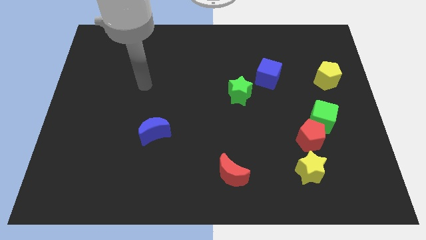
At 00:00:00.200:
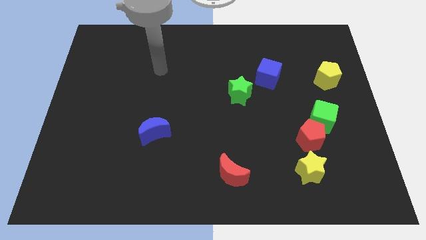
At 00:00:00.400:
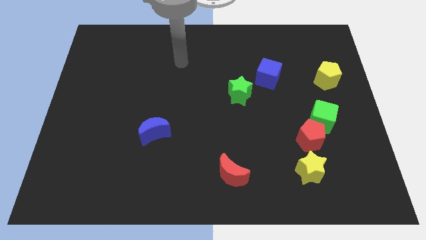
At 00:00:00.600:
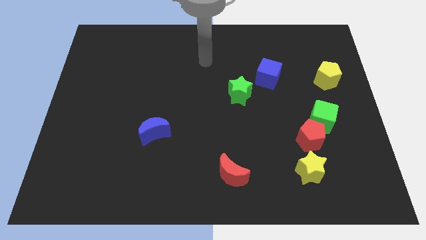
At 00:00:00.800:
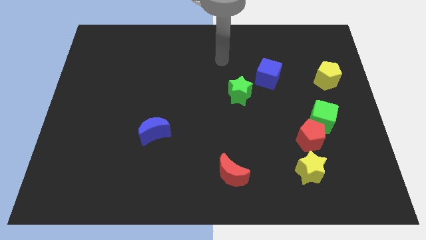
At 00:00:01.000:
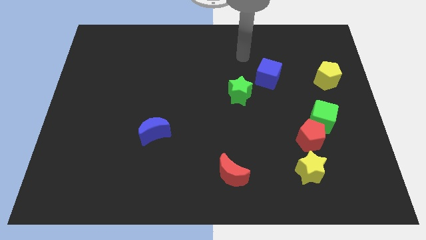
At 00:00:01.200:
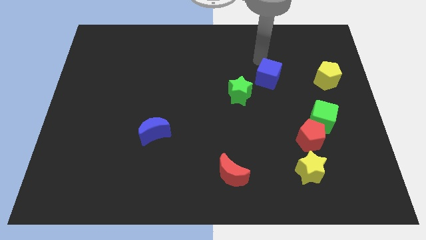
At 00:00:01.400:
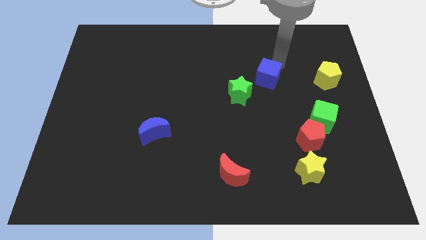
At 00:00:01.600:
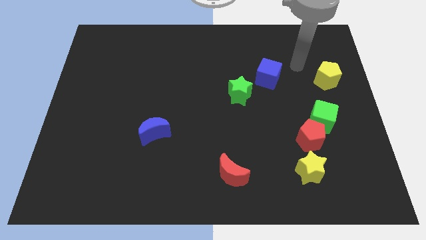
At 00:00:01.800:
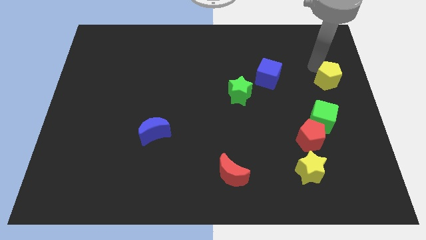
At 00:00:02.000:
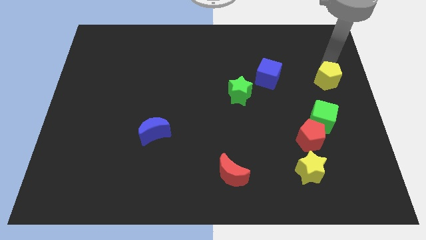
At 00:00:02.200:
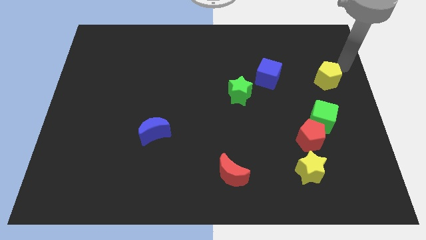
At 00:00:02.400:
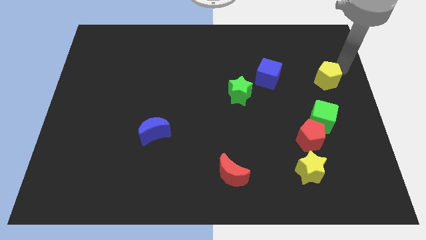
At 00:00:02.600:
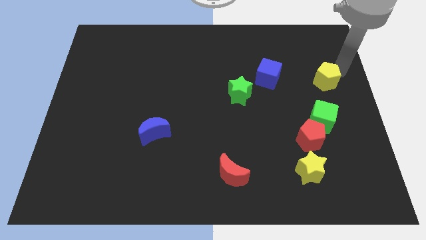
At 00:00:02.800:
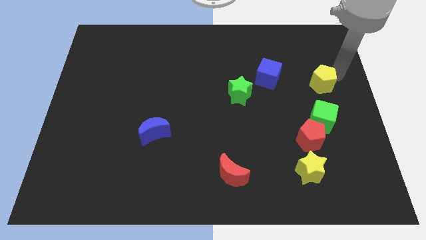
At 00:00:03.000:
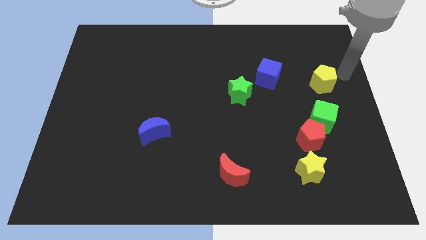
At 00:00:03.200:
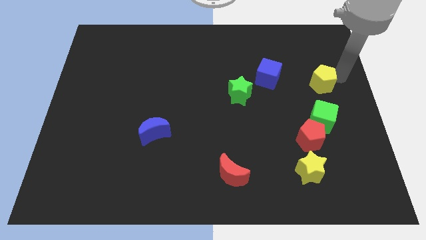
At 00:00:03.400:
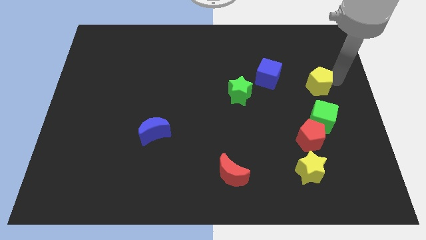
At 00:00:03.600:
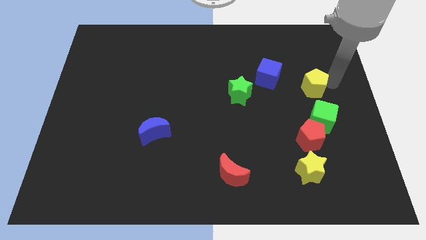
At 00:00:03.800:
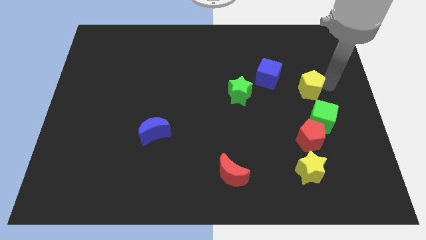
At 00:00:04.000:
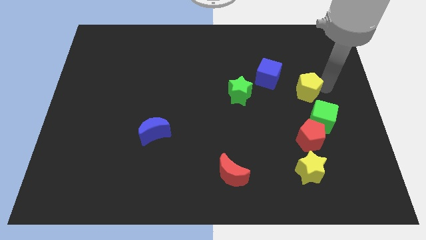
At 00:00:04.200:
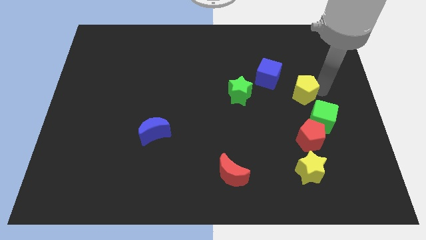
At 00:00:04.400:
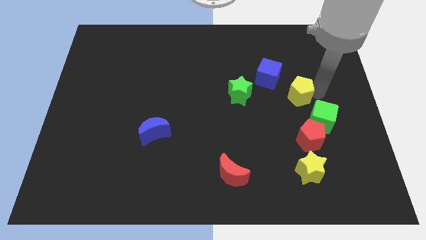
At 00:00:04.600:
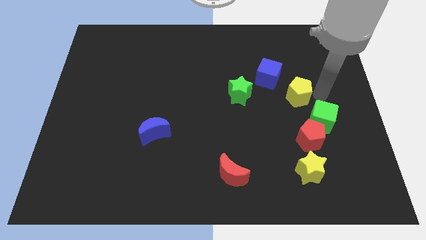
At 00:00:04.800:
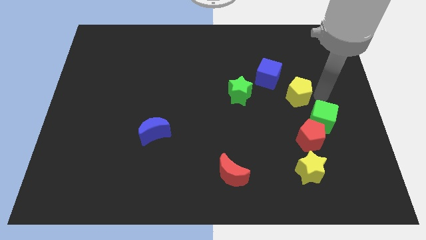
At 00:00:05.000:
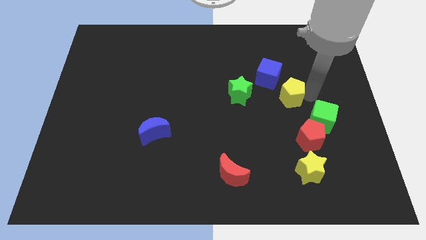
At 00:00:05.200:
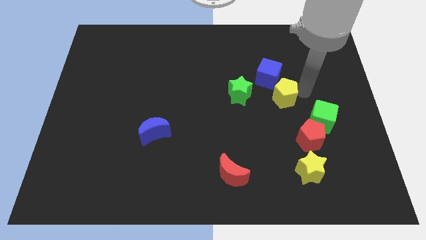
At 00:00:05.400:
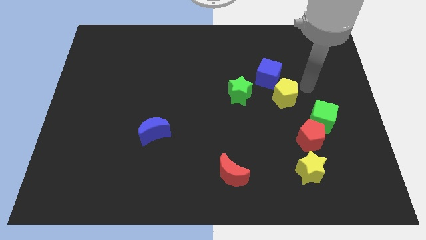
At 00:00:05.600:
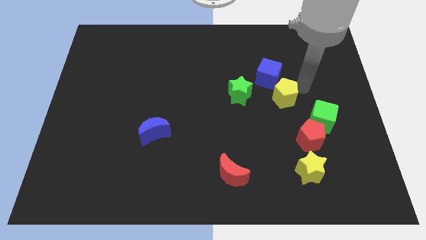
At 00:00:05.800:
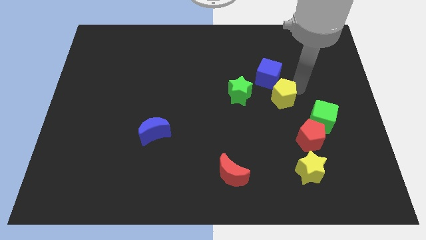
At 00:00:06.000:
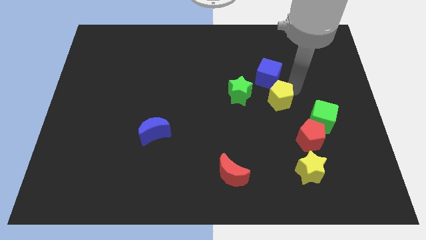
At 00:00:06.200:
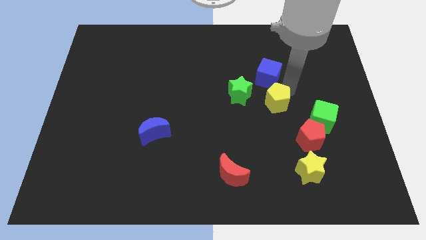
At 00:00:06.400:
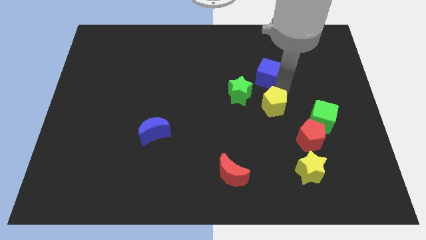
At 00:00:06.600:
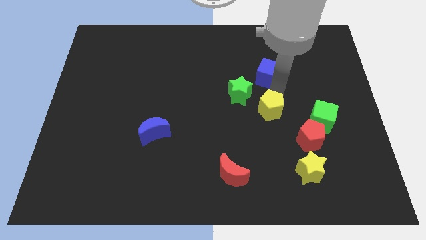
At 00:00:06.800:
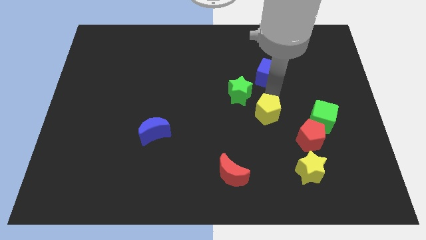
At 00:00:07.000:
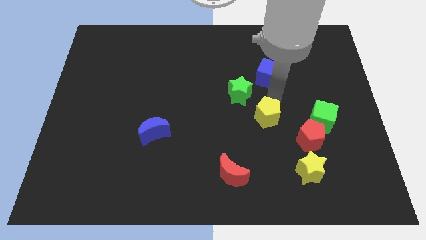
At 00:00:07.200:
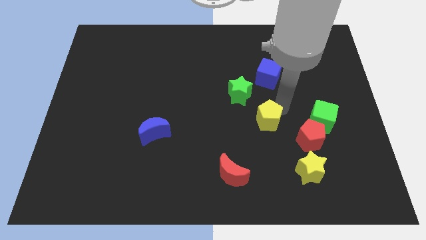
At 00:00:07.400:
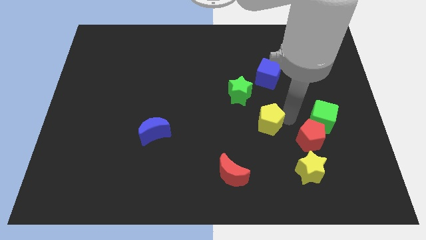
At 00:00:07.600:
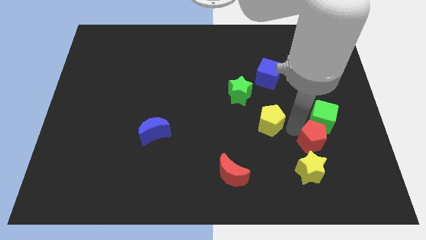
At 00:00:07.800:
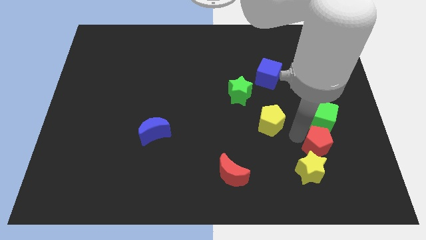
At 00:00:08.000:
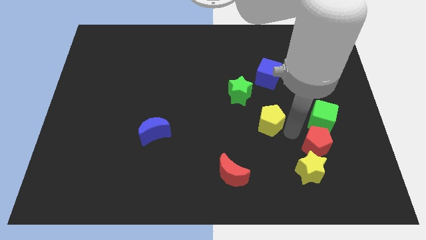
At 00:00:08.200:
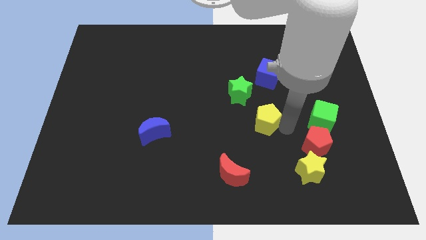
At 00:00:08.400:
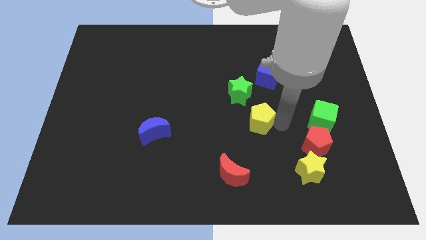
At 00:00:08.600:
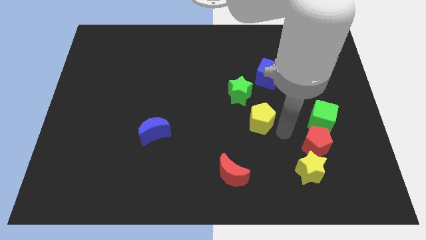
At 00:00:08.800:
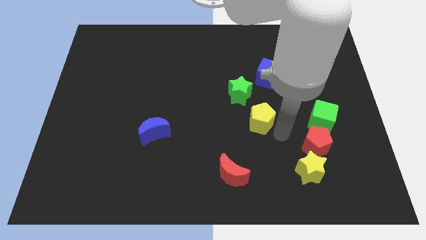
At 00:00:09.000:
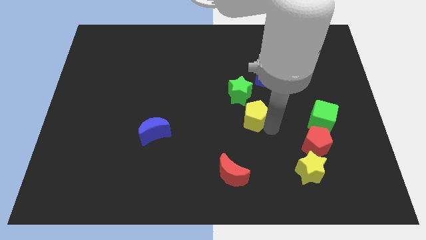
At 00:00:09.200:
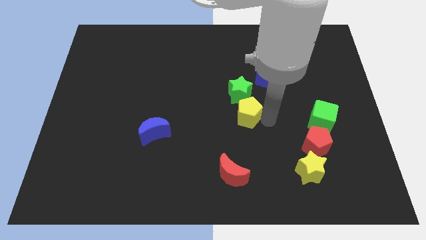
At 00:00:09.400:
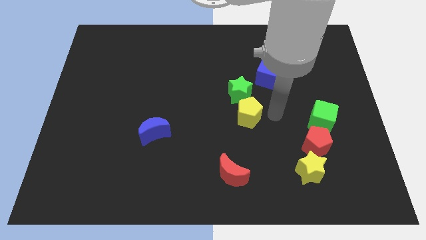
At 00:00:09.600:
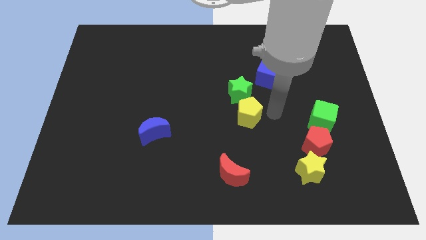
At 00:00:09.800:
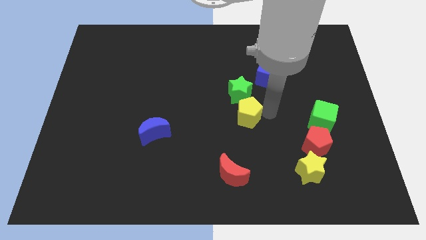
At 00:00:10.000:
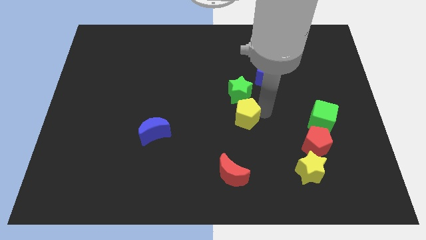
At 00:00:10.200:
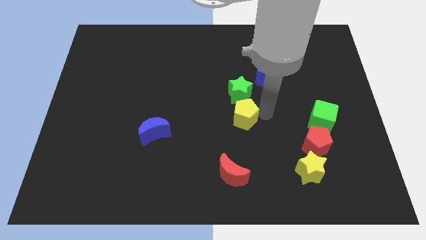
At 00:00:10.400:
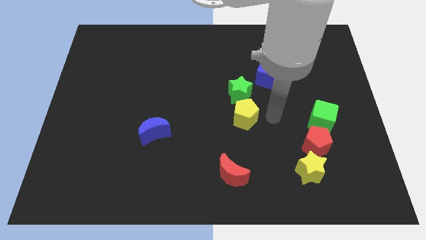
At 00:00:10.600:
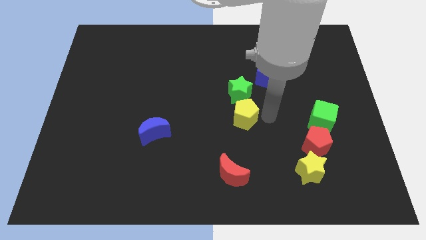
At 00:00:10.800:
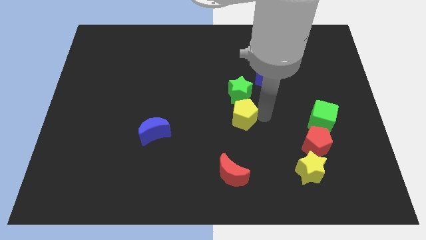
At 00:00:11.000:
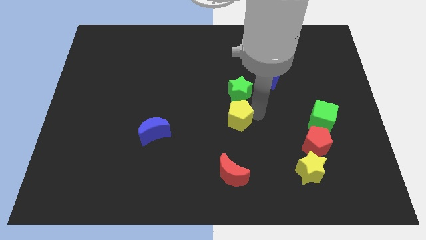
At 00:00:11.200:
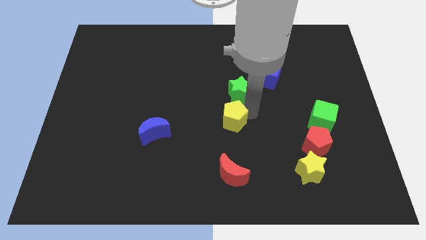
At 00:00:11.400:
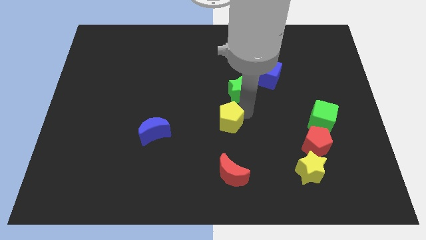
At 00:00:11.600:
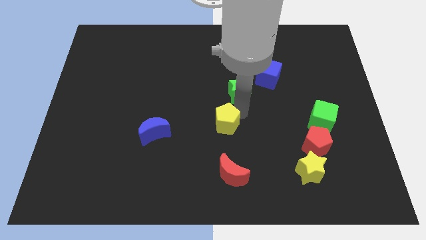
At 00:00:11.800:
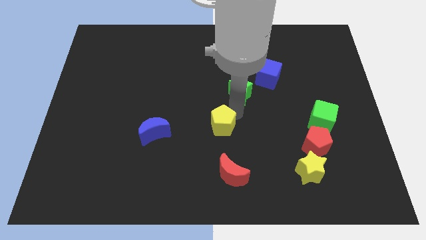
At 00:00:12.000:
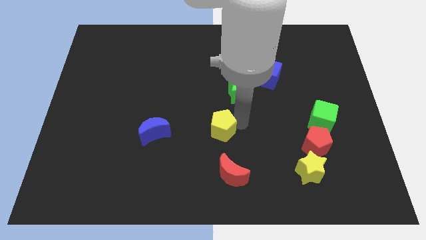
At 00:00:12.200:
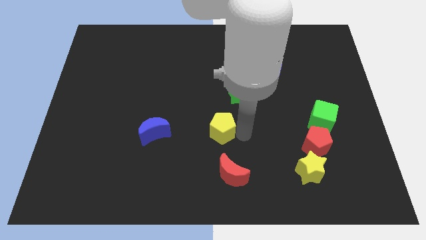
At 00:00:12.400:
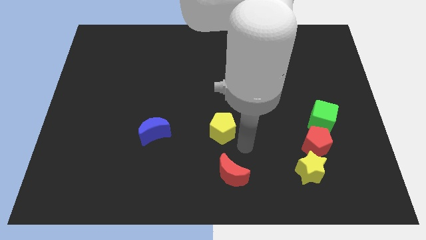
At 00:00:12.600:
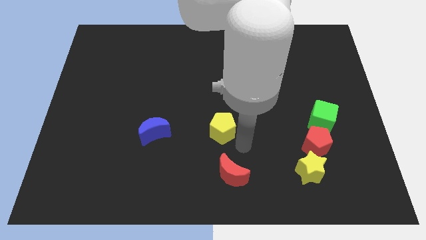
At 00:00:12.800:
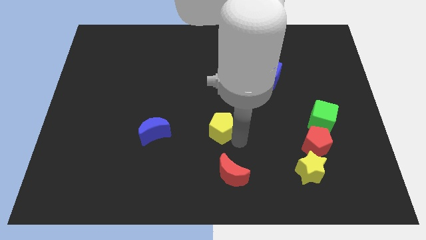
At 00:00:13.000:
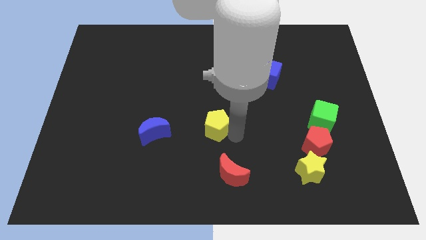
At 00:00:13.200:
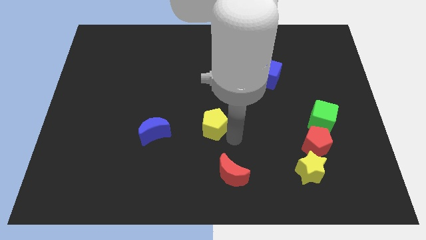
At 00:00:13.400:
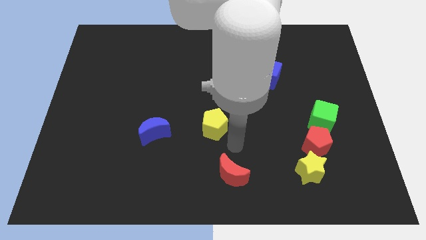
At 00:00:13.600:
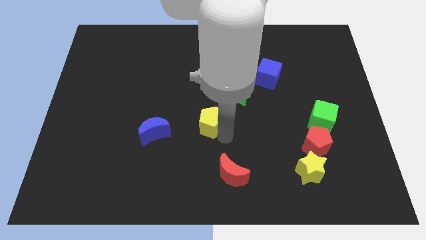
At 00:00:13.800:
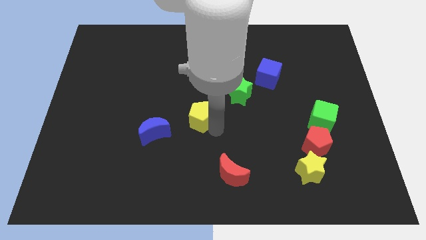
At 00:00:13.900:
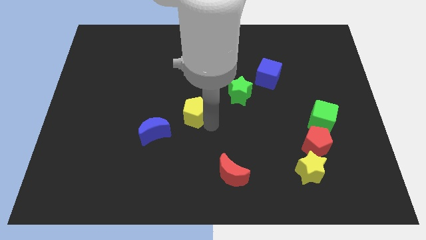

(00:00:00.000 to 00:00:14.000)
slide the yellow pentagon to the top right of the blue moon

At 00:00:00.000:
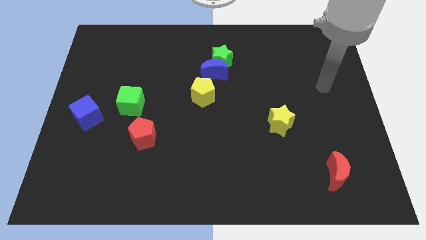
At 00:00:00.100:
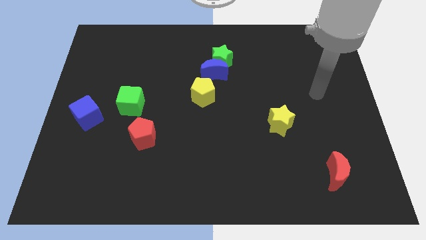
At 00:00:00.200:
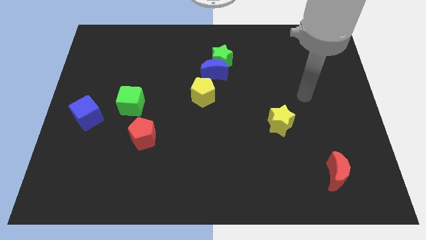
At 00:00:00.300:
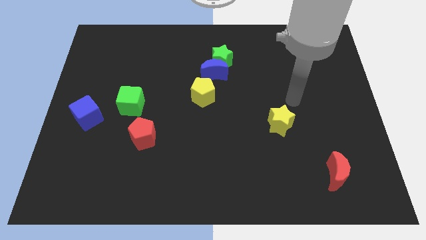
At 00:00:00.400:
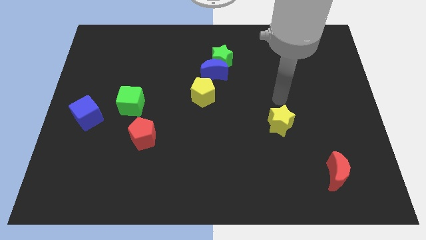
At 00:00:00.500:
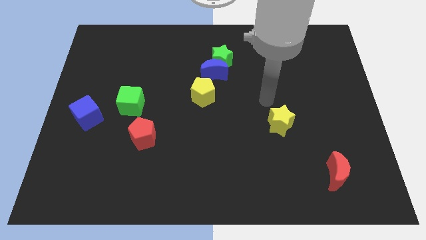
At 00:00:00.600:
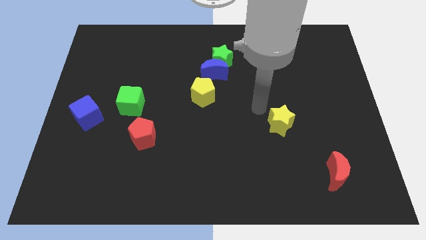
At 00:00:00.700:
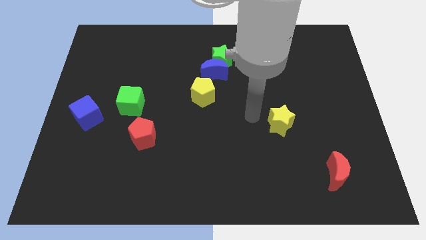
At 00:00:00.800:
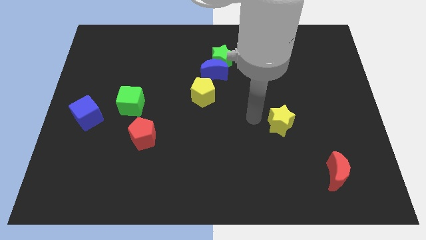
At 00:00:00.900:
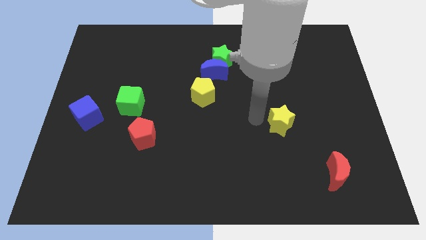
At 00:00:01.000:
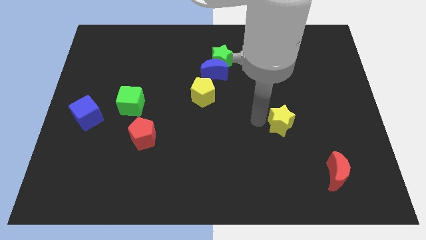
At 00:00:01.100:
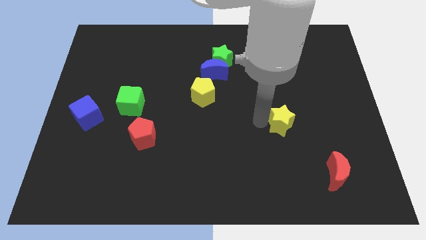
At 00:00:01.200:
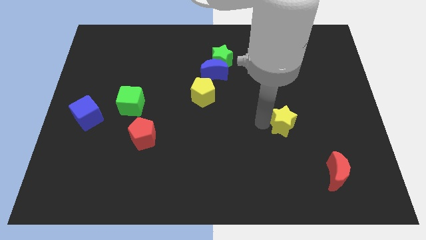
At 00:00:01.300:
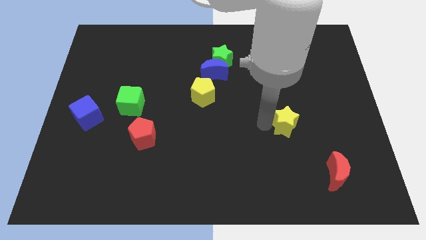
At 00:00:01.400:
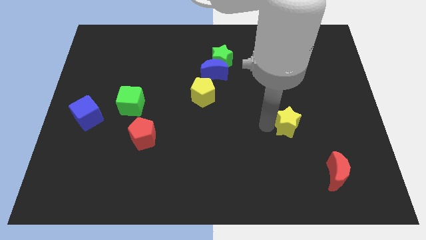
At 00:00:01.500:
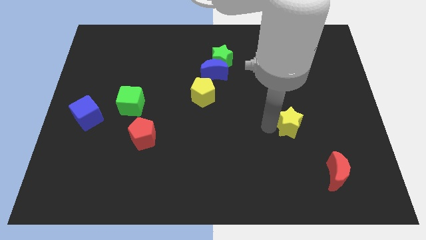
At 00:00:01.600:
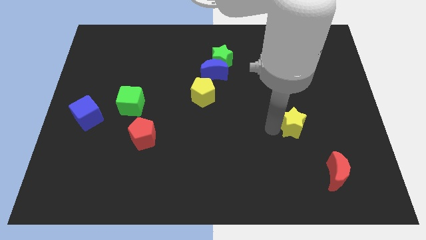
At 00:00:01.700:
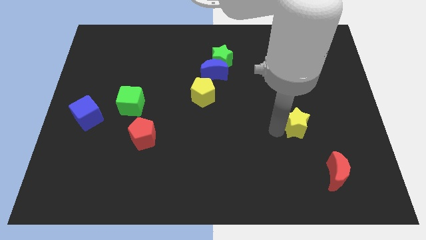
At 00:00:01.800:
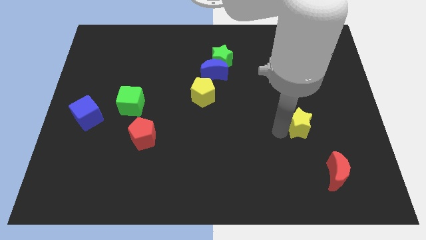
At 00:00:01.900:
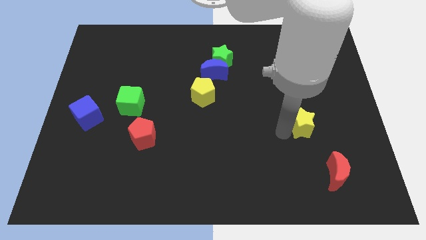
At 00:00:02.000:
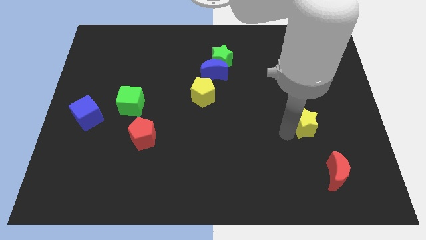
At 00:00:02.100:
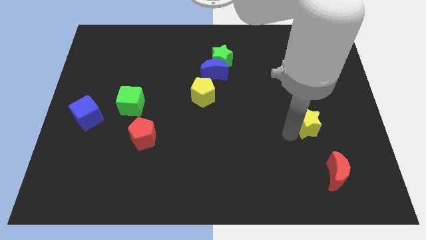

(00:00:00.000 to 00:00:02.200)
put the yellow star above the red moon
